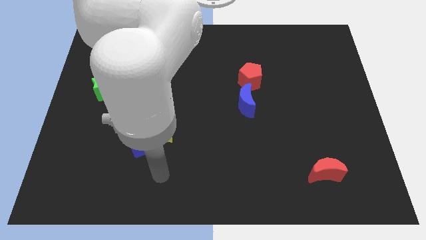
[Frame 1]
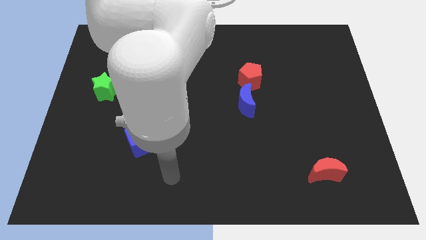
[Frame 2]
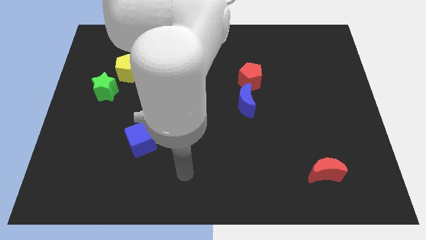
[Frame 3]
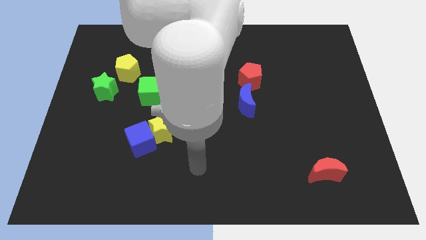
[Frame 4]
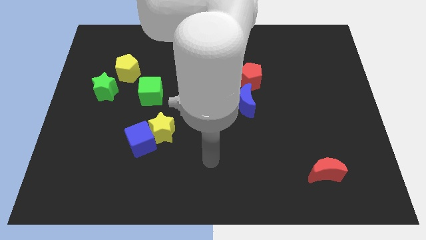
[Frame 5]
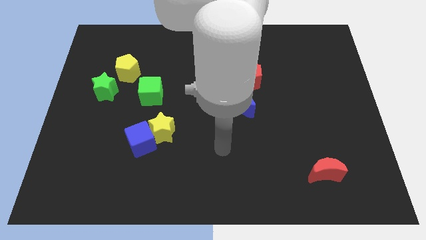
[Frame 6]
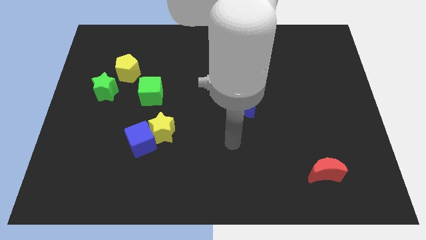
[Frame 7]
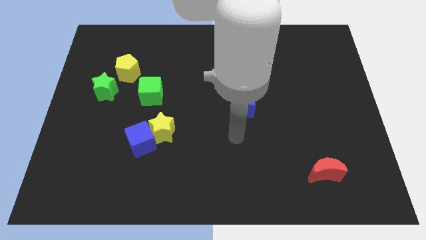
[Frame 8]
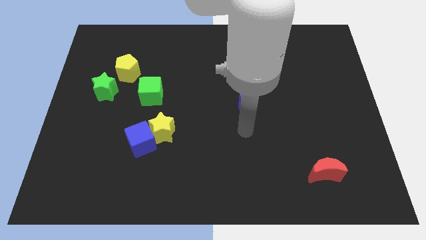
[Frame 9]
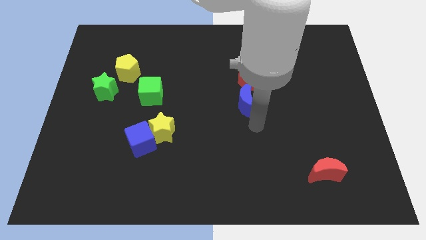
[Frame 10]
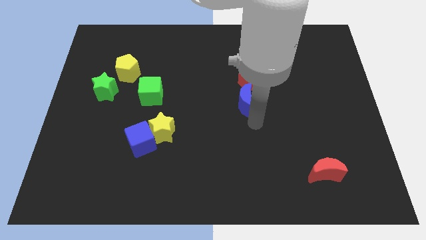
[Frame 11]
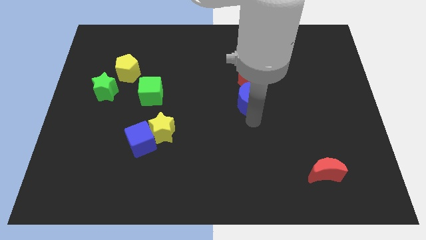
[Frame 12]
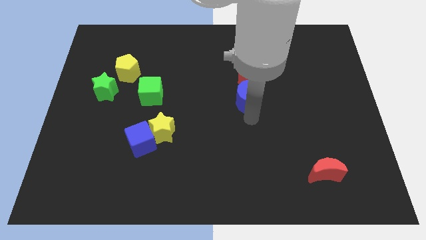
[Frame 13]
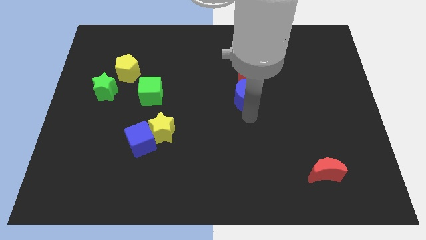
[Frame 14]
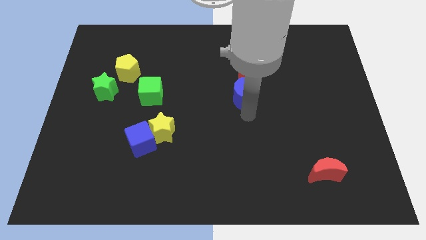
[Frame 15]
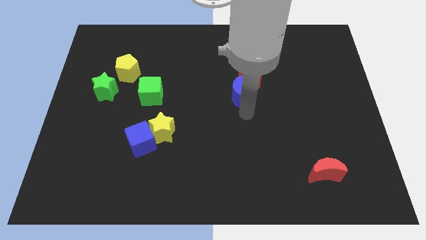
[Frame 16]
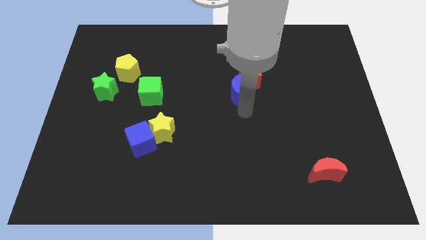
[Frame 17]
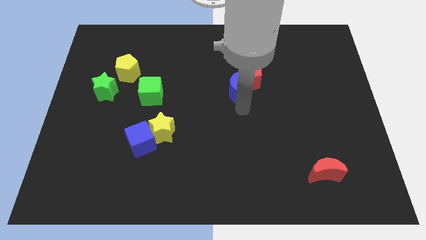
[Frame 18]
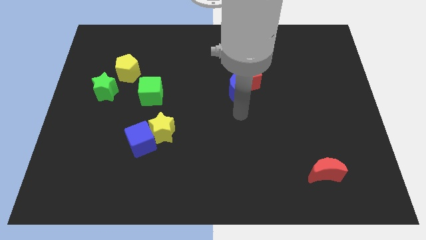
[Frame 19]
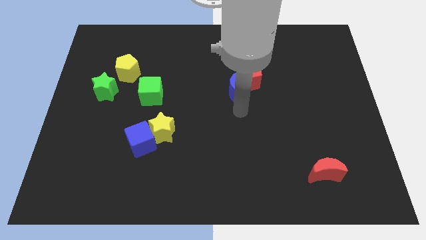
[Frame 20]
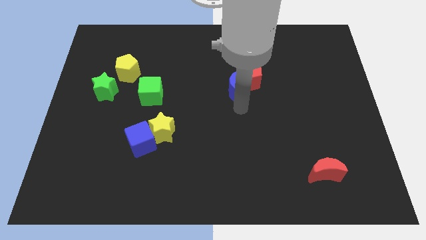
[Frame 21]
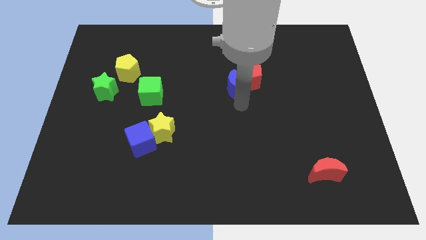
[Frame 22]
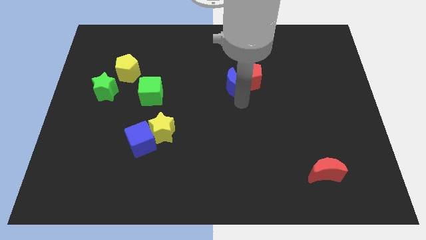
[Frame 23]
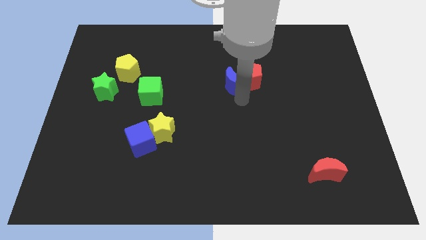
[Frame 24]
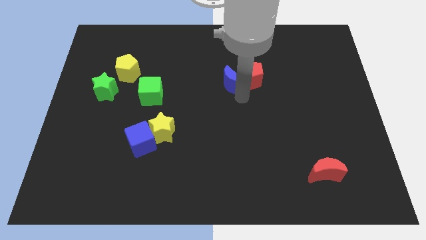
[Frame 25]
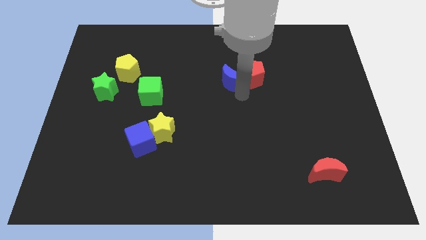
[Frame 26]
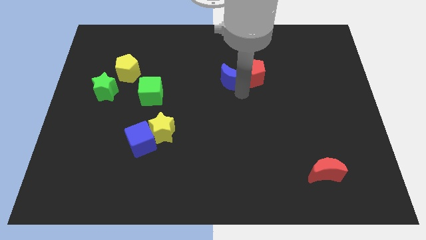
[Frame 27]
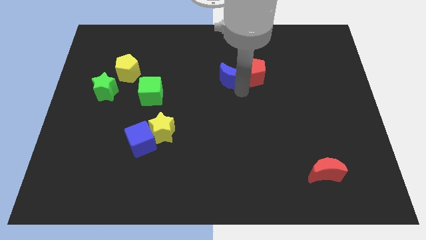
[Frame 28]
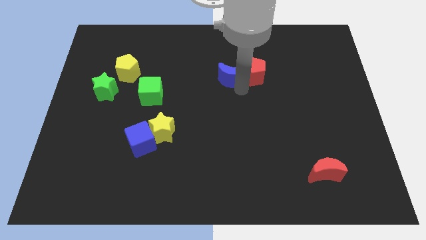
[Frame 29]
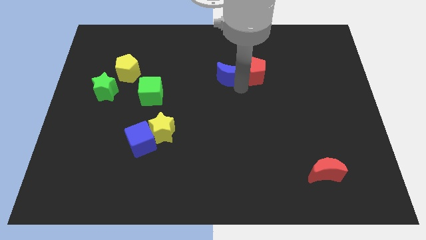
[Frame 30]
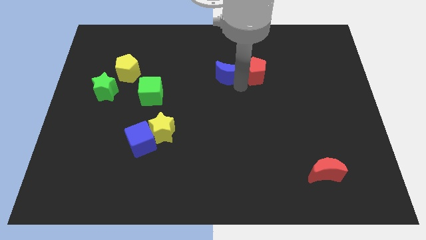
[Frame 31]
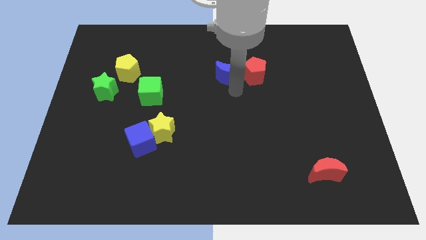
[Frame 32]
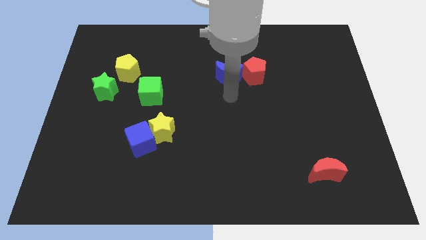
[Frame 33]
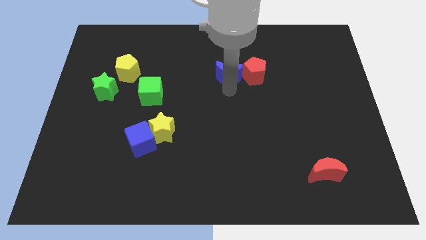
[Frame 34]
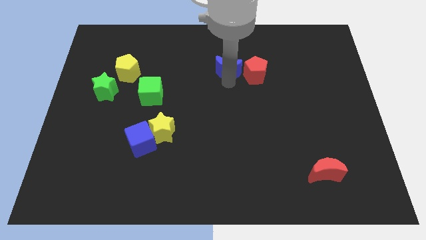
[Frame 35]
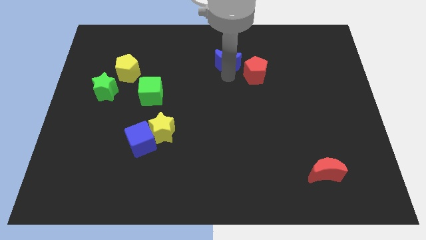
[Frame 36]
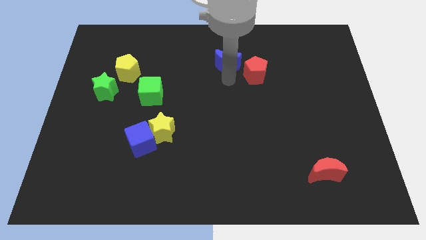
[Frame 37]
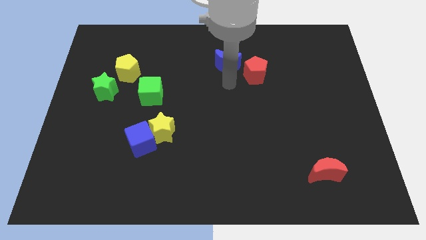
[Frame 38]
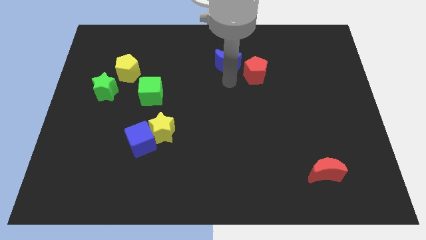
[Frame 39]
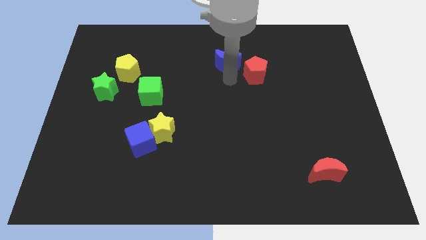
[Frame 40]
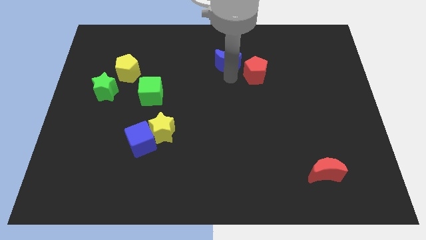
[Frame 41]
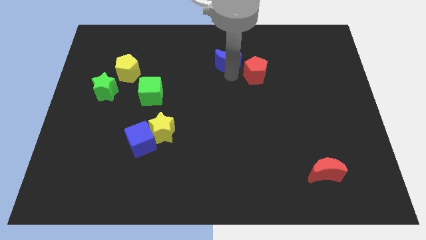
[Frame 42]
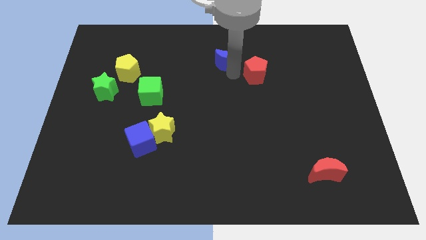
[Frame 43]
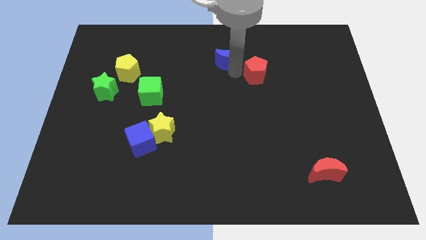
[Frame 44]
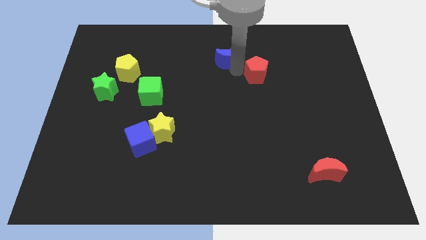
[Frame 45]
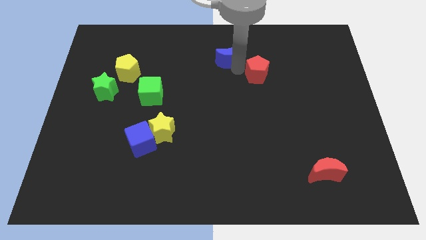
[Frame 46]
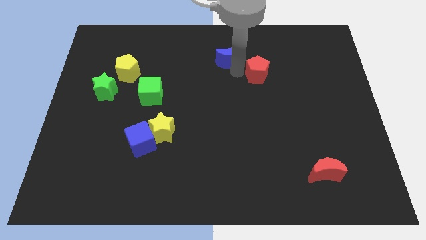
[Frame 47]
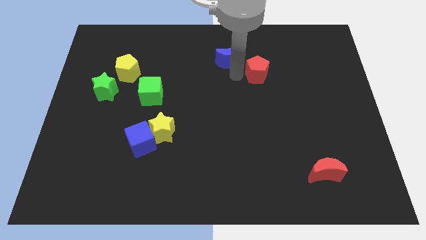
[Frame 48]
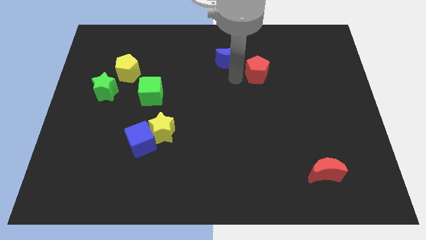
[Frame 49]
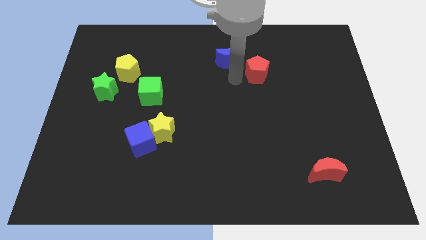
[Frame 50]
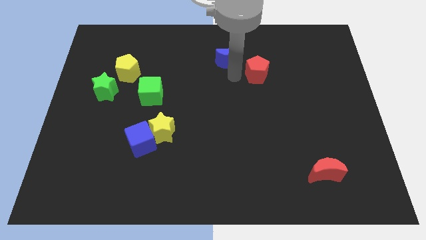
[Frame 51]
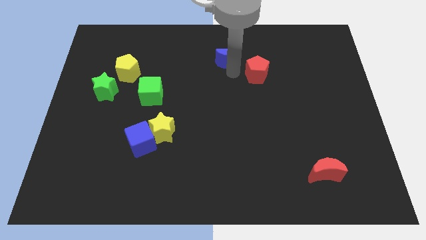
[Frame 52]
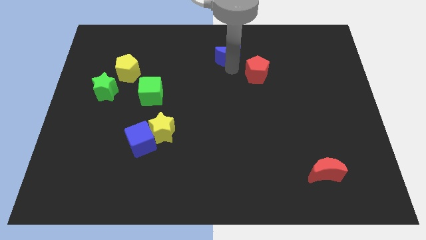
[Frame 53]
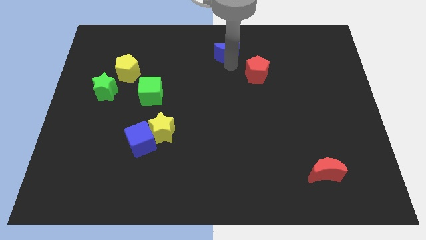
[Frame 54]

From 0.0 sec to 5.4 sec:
move the blue moon to the top side

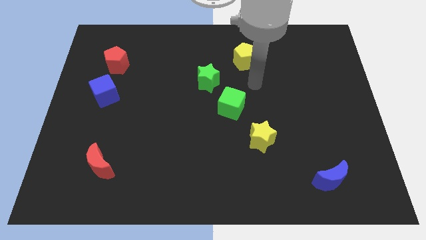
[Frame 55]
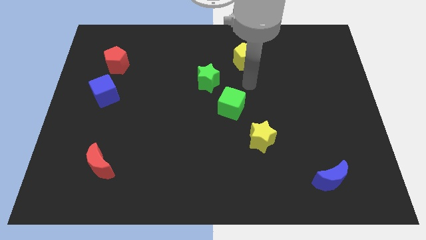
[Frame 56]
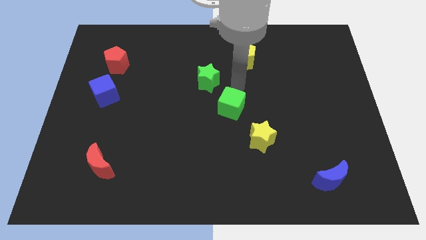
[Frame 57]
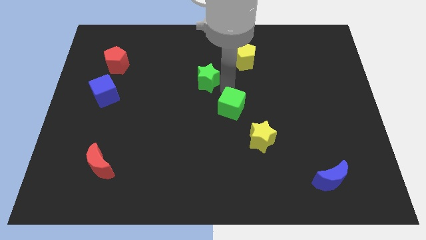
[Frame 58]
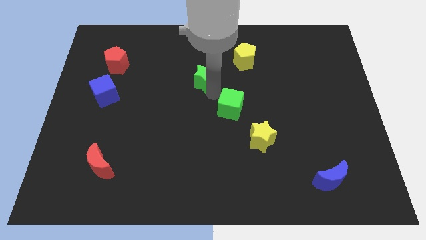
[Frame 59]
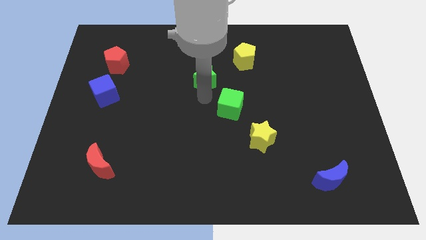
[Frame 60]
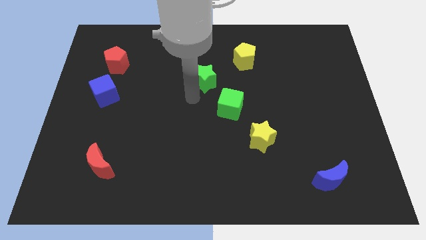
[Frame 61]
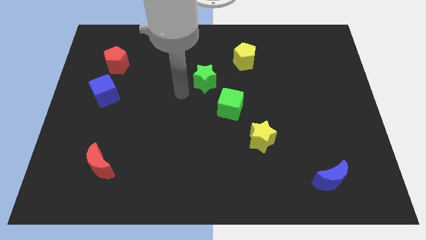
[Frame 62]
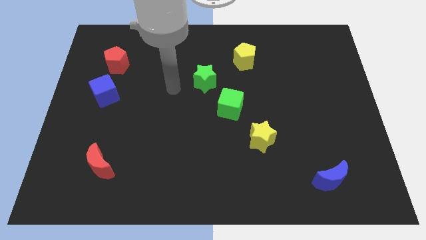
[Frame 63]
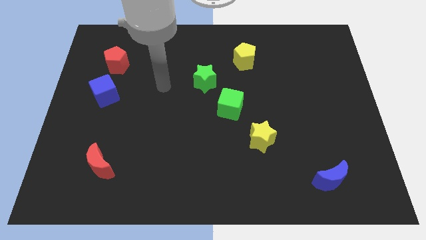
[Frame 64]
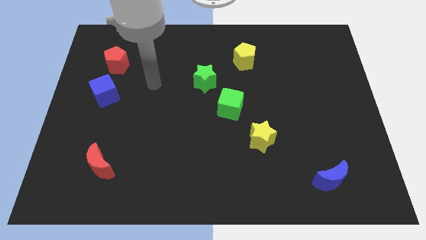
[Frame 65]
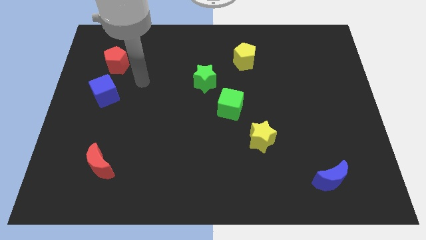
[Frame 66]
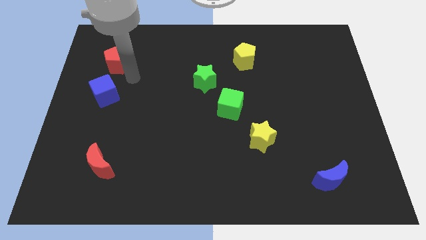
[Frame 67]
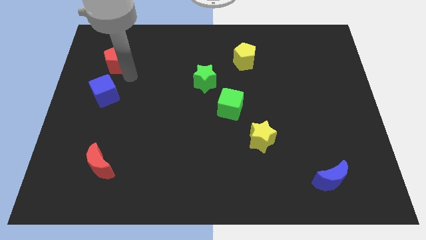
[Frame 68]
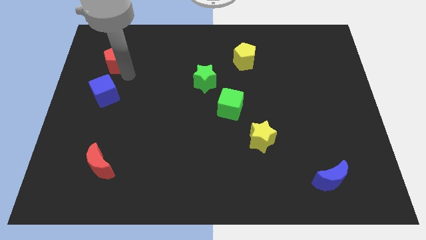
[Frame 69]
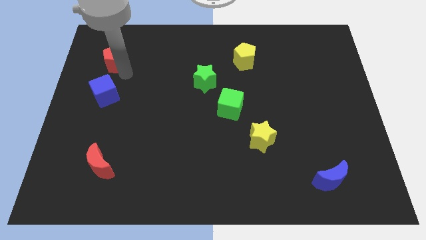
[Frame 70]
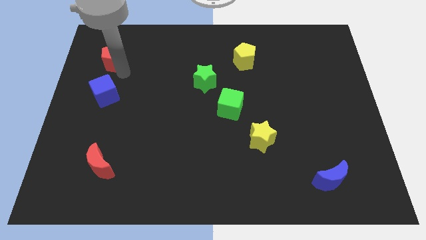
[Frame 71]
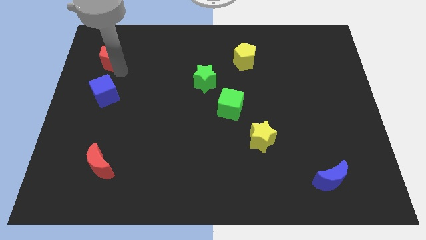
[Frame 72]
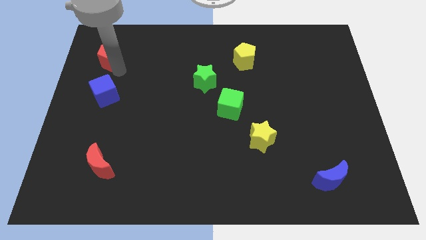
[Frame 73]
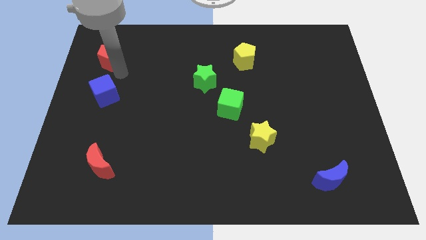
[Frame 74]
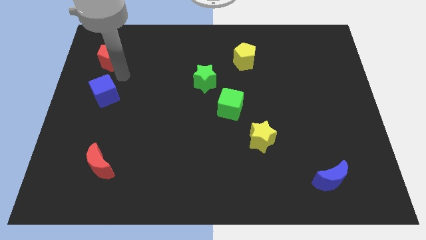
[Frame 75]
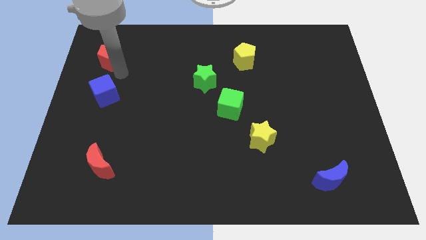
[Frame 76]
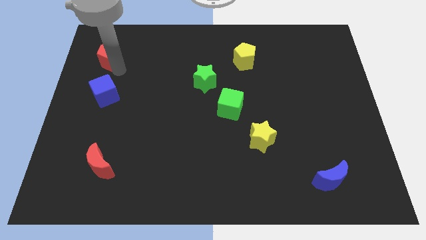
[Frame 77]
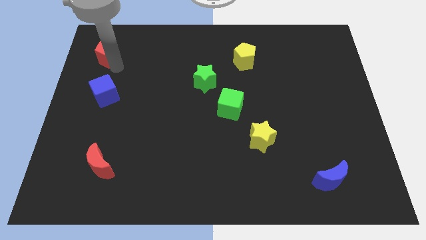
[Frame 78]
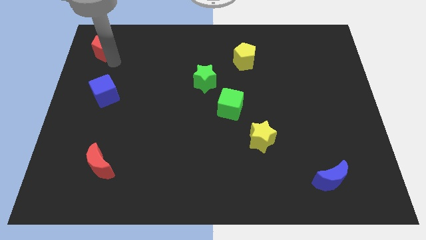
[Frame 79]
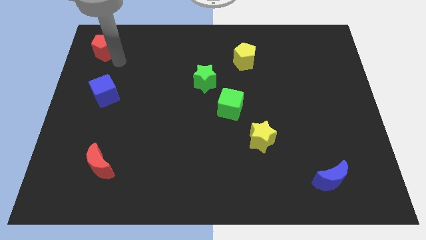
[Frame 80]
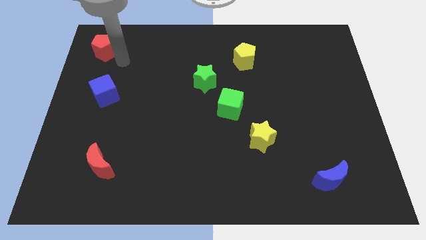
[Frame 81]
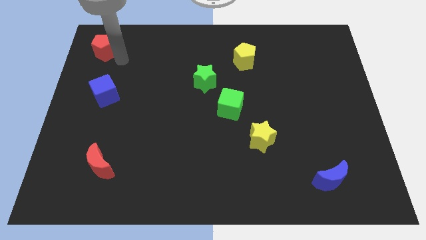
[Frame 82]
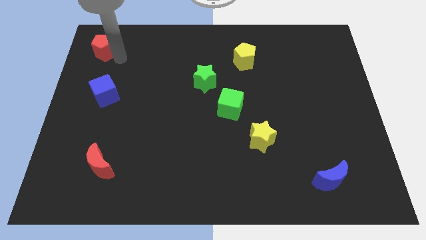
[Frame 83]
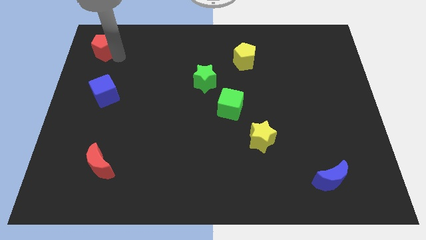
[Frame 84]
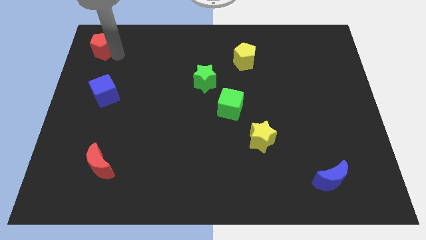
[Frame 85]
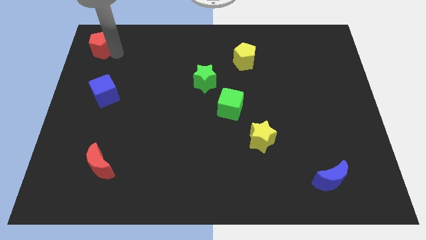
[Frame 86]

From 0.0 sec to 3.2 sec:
put the red pentagon to the top left
